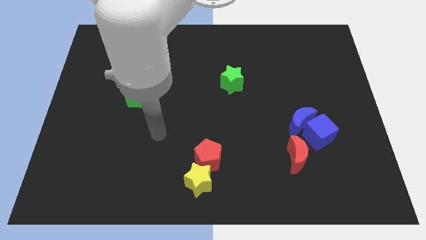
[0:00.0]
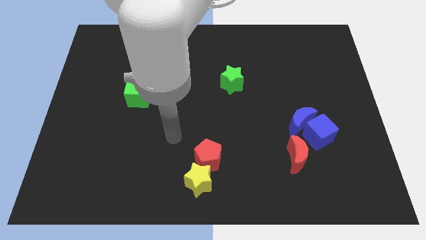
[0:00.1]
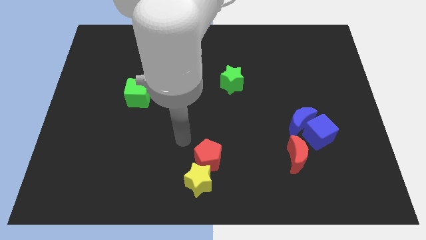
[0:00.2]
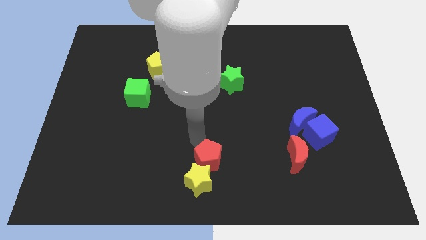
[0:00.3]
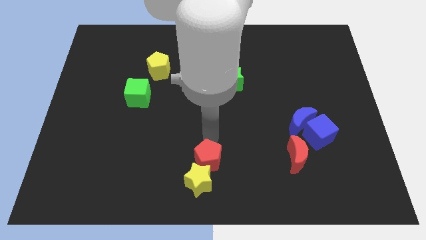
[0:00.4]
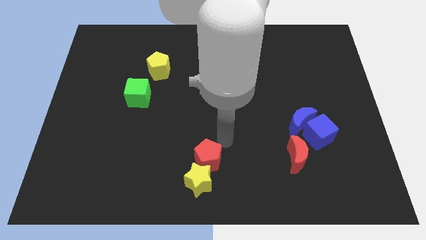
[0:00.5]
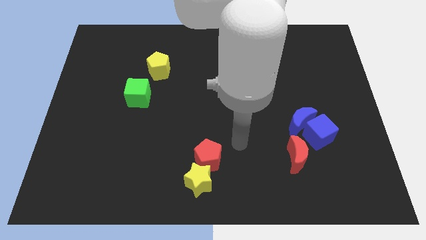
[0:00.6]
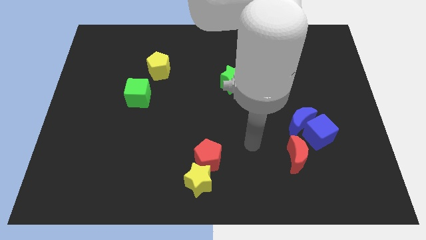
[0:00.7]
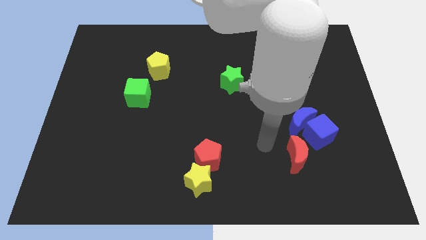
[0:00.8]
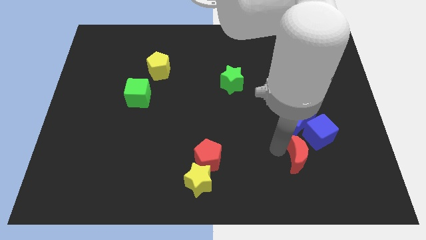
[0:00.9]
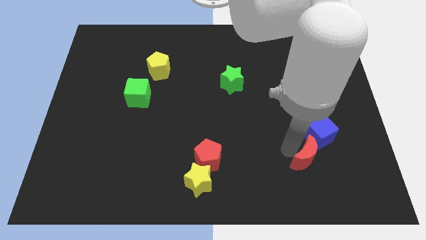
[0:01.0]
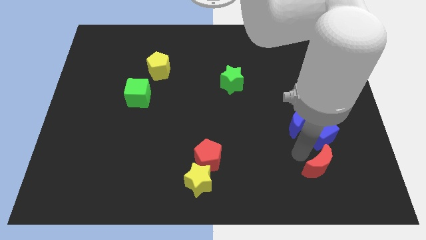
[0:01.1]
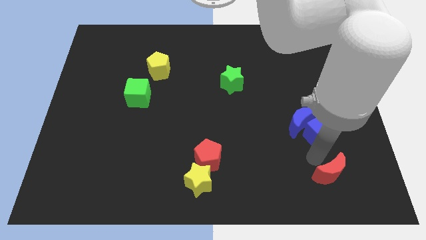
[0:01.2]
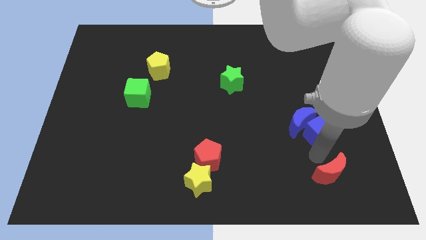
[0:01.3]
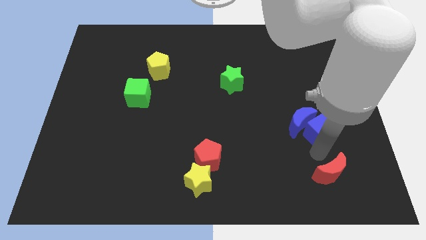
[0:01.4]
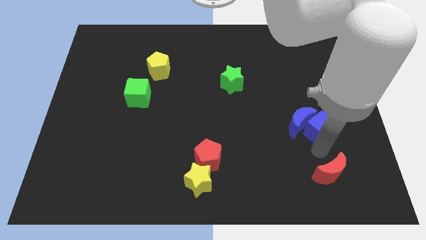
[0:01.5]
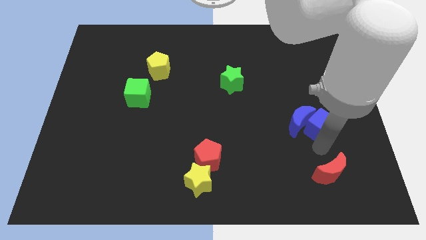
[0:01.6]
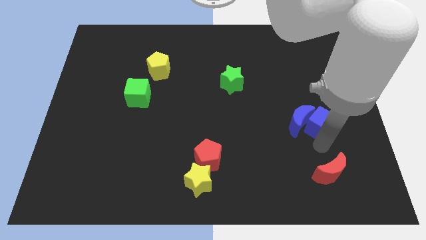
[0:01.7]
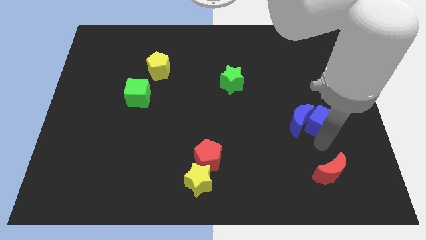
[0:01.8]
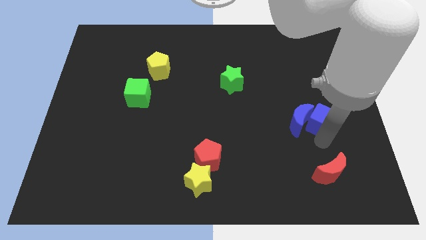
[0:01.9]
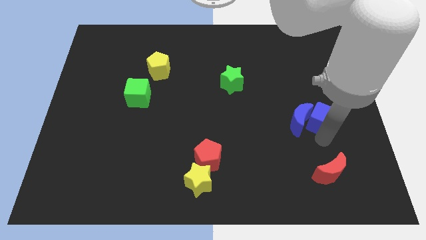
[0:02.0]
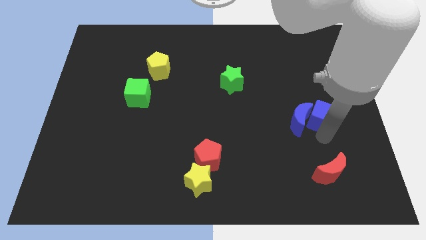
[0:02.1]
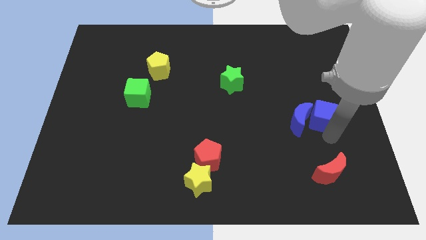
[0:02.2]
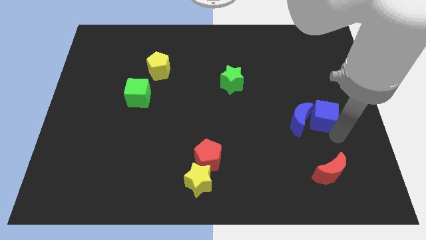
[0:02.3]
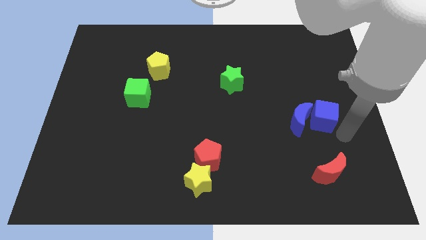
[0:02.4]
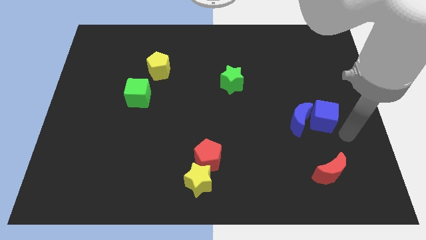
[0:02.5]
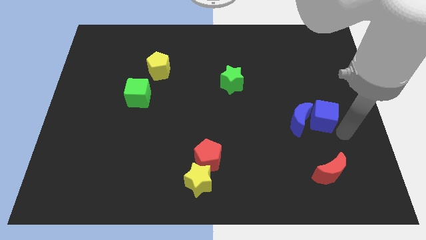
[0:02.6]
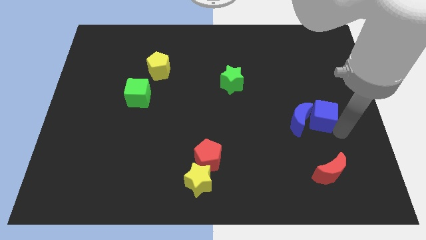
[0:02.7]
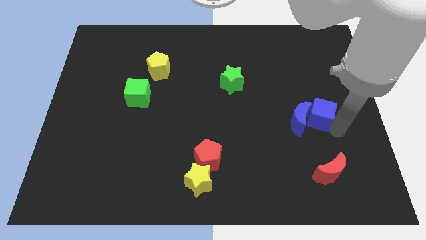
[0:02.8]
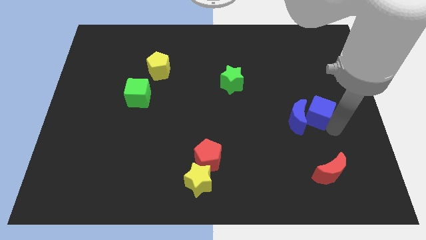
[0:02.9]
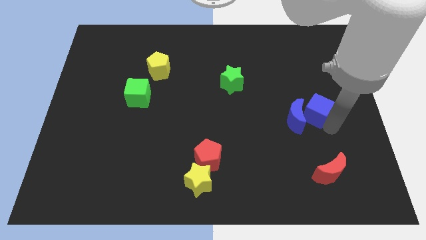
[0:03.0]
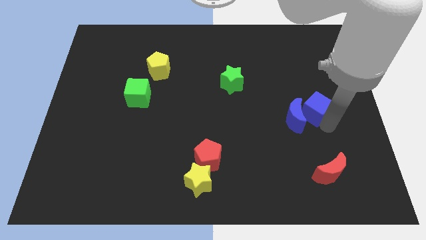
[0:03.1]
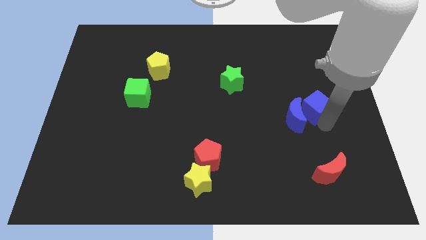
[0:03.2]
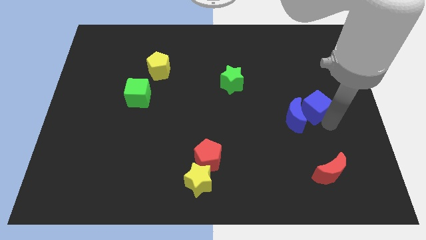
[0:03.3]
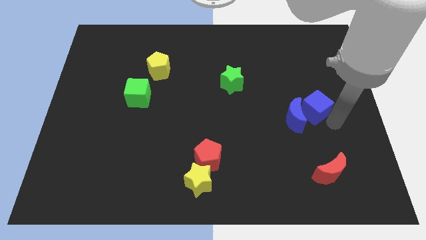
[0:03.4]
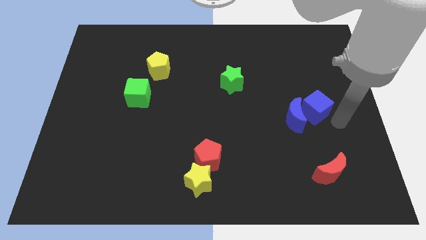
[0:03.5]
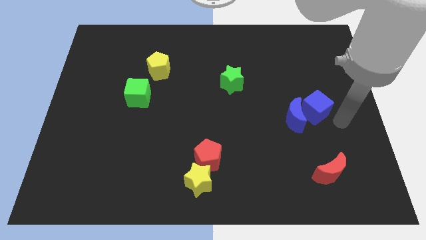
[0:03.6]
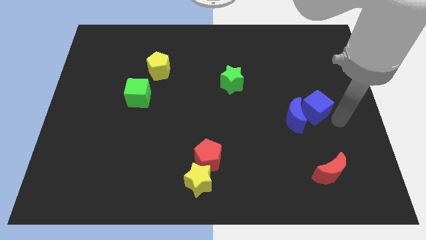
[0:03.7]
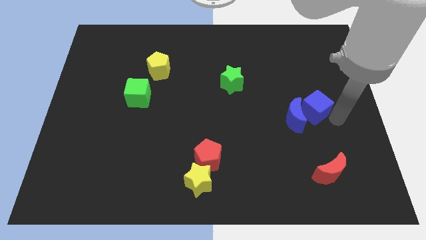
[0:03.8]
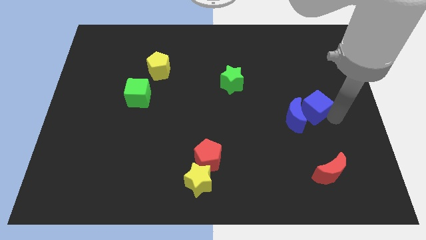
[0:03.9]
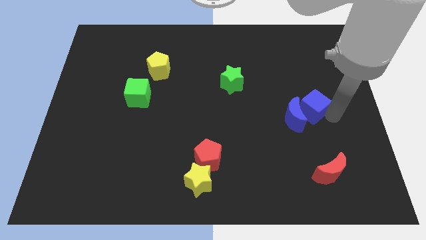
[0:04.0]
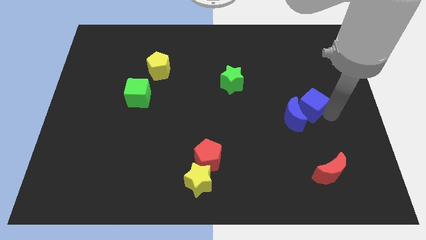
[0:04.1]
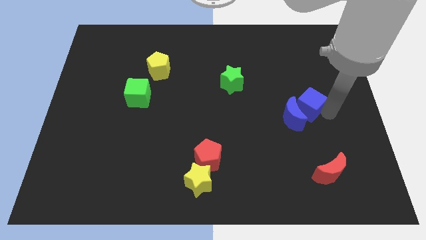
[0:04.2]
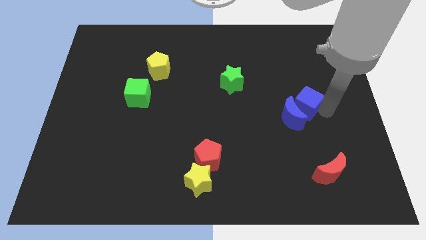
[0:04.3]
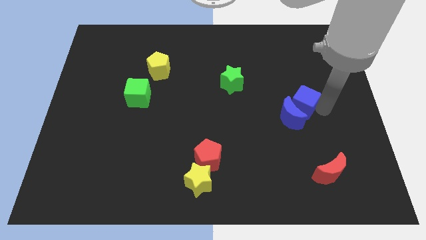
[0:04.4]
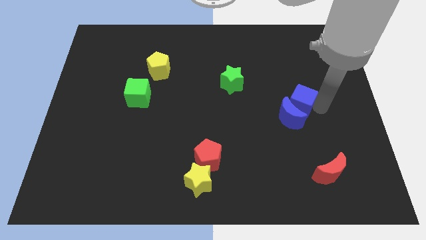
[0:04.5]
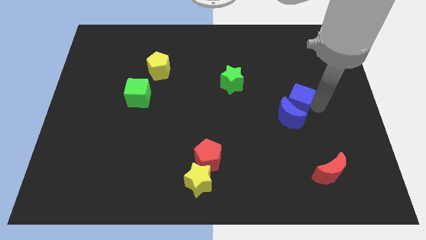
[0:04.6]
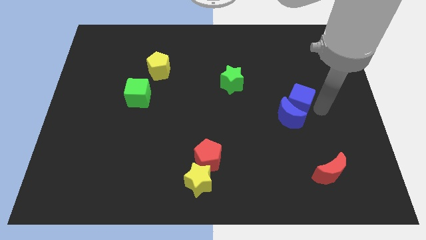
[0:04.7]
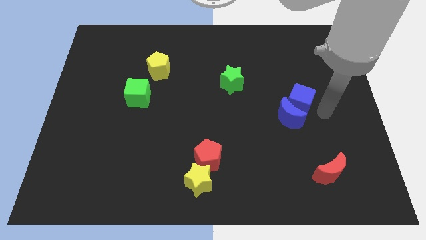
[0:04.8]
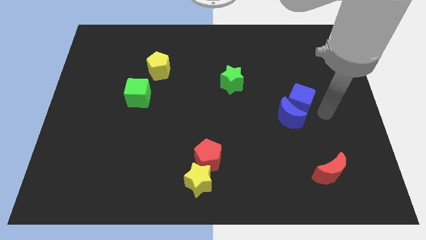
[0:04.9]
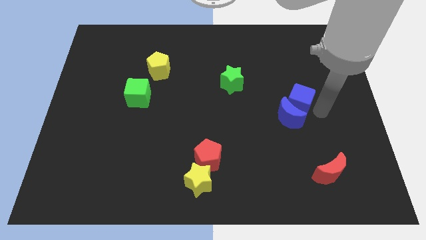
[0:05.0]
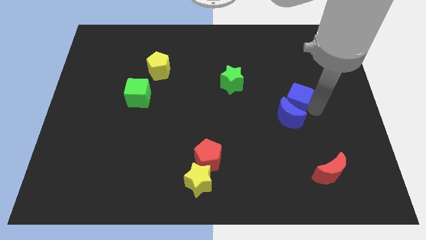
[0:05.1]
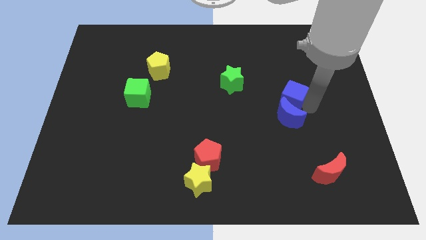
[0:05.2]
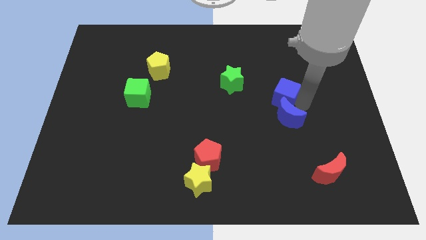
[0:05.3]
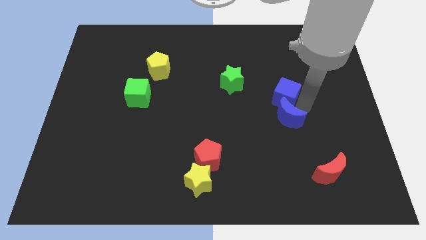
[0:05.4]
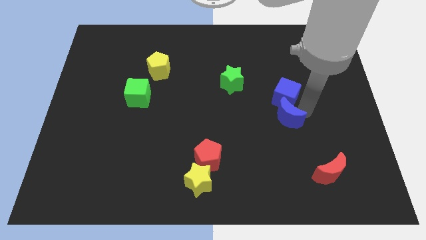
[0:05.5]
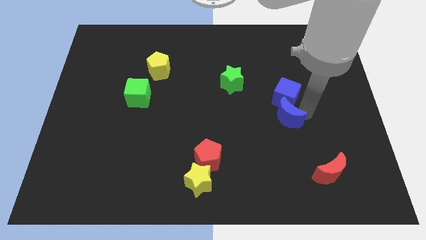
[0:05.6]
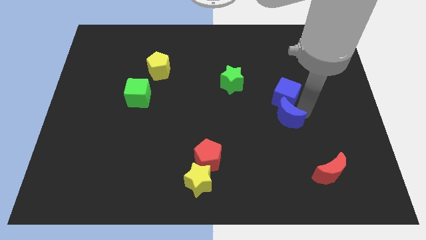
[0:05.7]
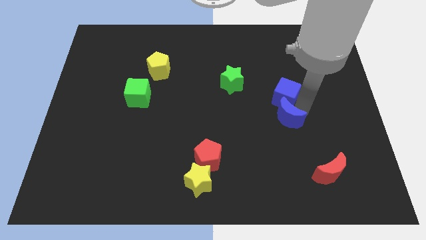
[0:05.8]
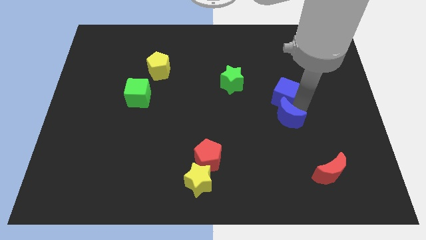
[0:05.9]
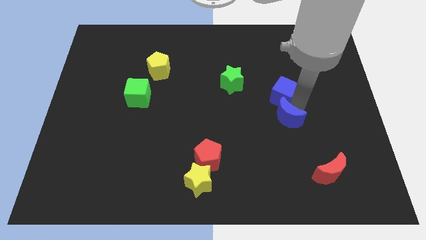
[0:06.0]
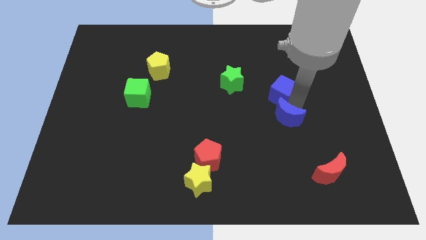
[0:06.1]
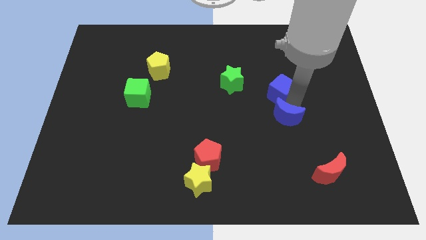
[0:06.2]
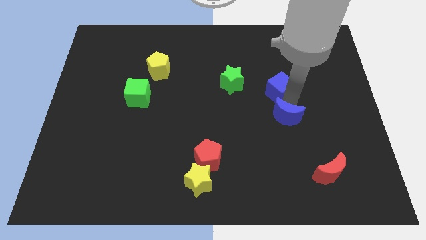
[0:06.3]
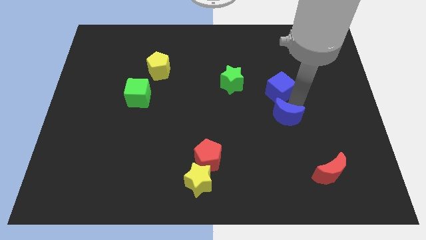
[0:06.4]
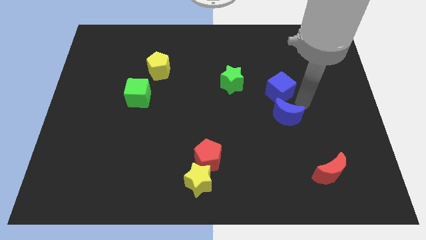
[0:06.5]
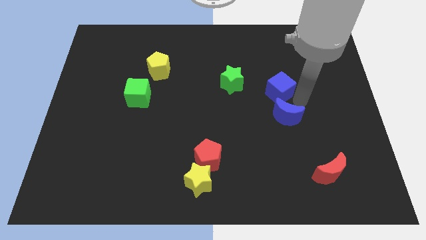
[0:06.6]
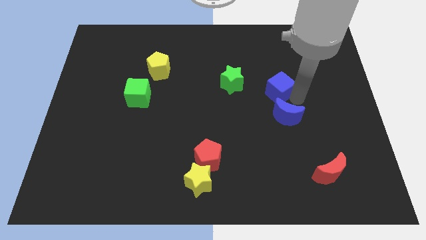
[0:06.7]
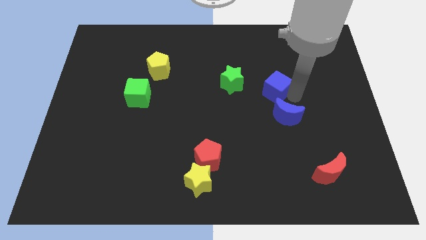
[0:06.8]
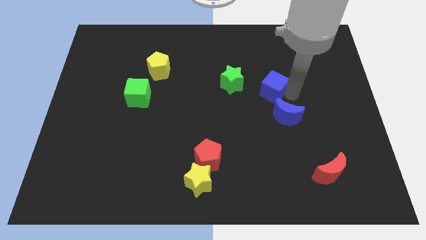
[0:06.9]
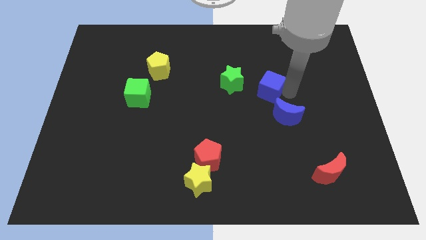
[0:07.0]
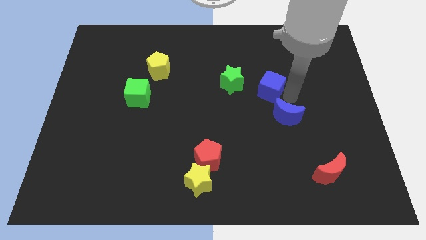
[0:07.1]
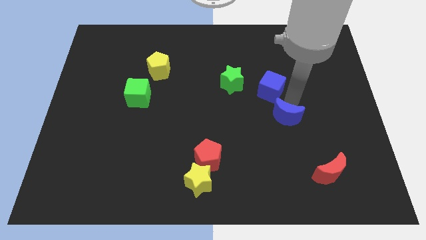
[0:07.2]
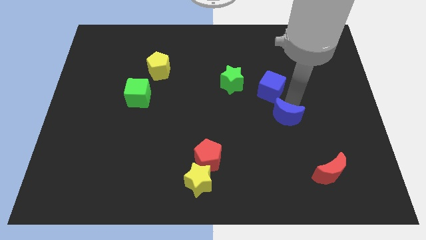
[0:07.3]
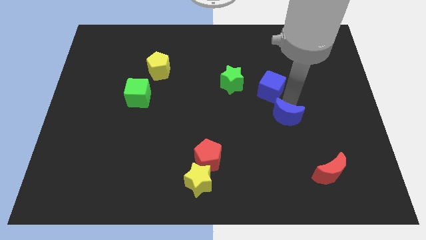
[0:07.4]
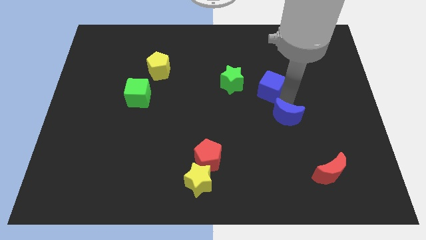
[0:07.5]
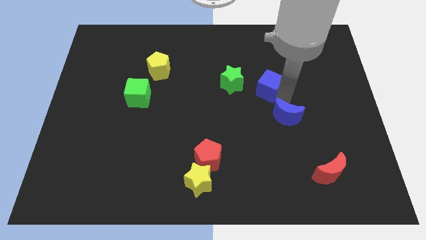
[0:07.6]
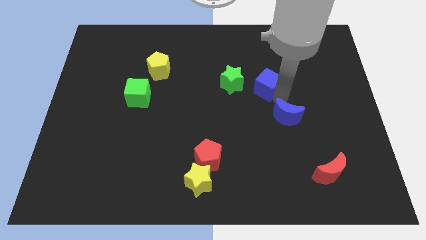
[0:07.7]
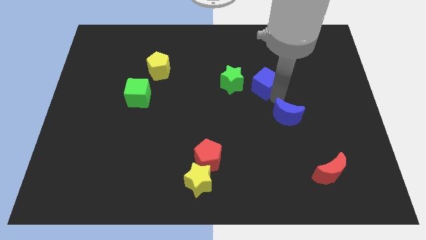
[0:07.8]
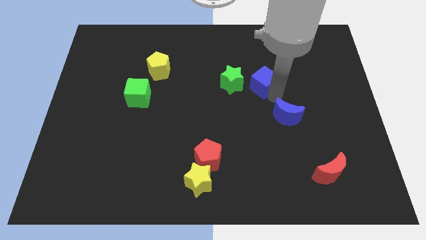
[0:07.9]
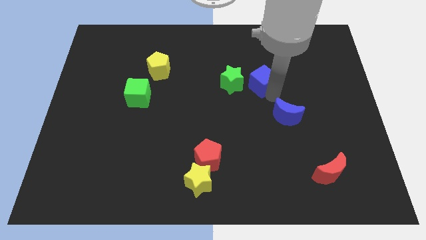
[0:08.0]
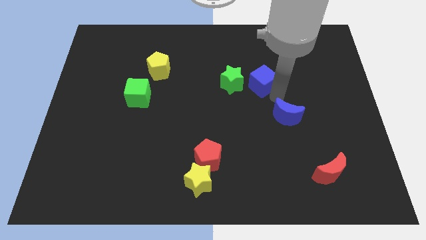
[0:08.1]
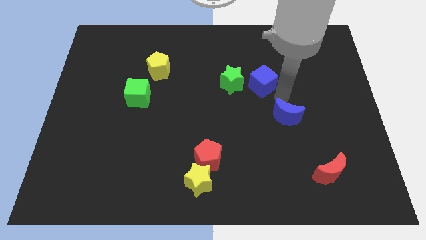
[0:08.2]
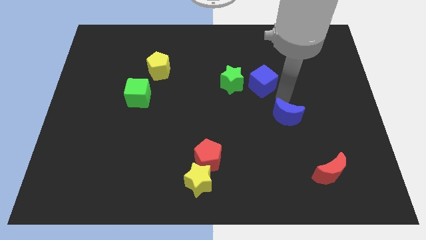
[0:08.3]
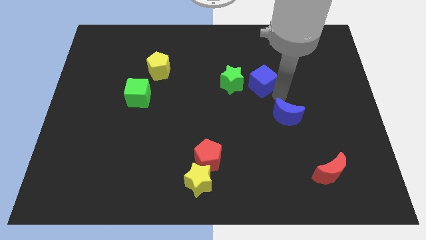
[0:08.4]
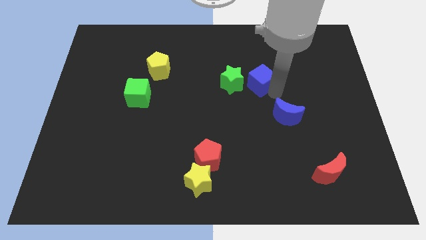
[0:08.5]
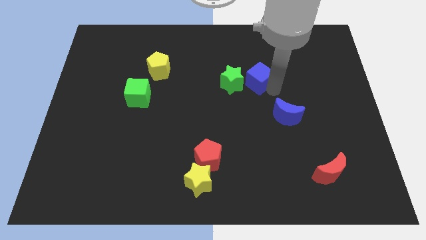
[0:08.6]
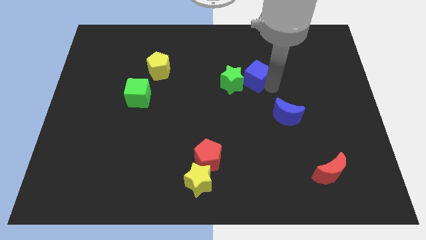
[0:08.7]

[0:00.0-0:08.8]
move the blue cube diagonally up and left
